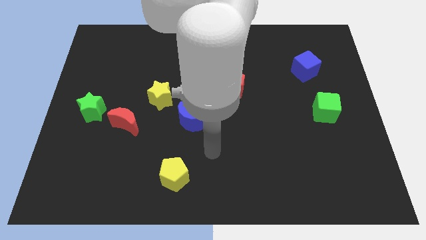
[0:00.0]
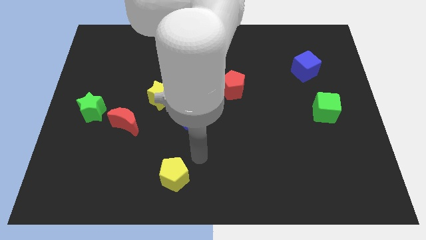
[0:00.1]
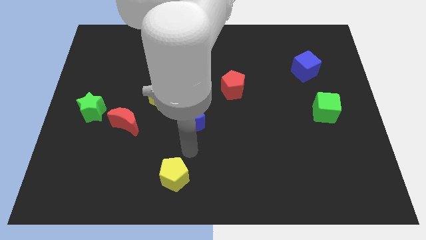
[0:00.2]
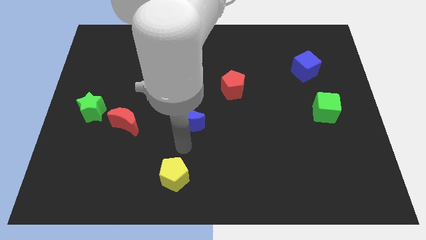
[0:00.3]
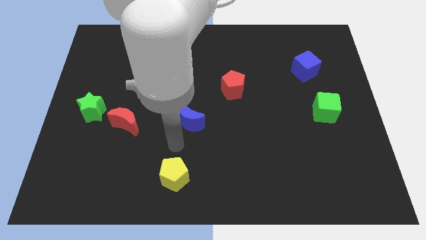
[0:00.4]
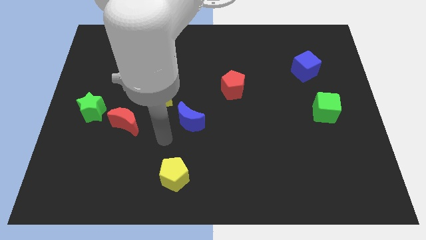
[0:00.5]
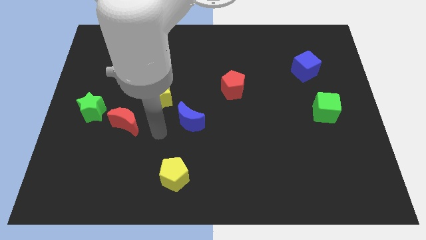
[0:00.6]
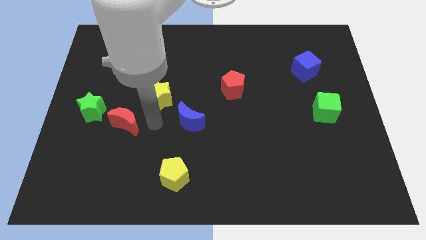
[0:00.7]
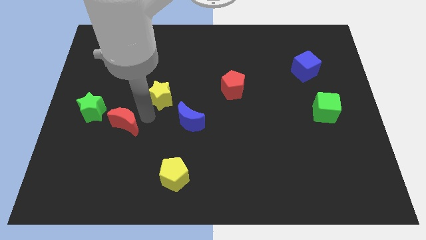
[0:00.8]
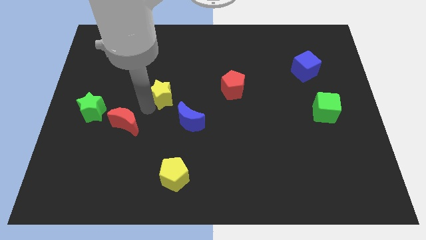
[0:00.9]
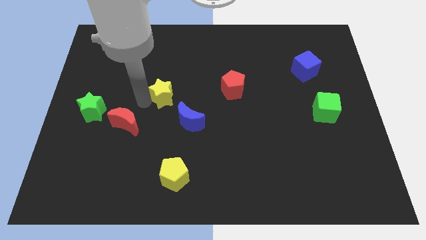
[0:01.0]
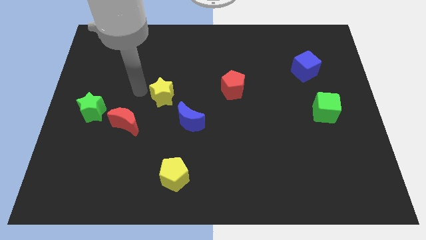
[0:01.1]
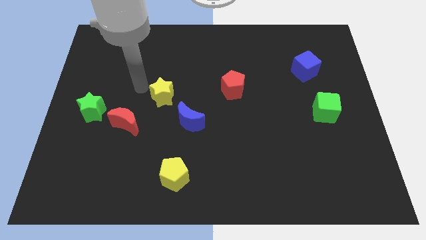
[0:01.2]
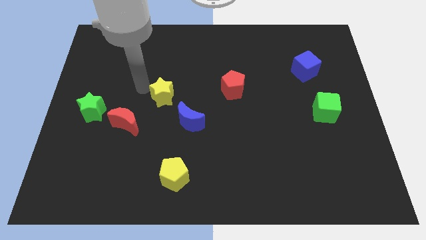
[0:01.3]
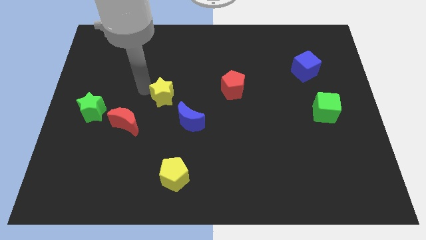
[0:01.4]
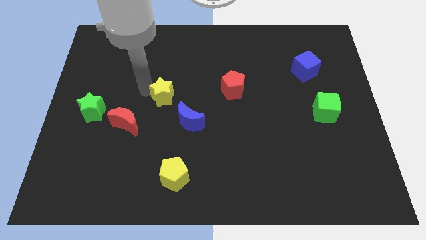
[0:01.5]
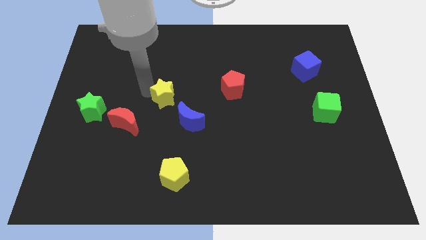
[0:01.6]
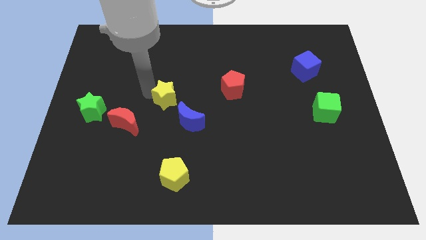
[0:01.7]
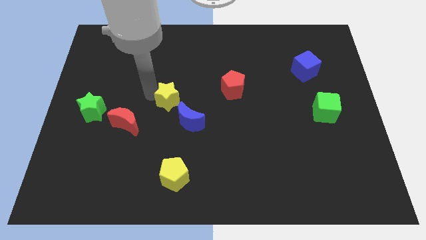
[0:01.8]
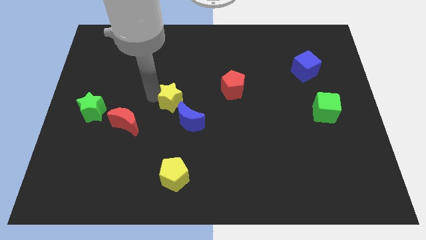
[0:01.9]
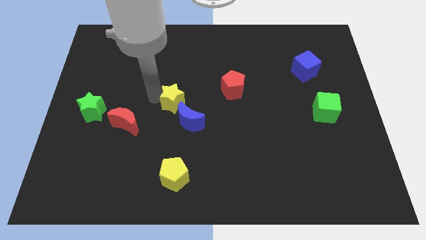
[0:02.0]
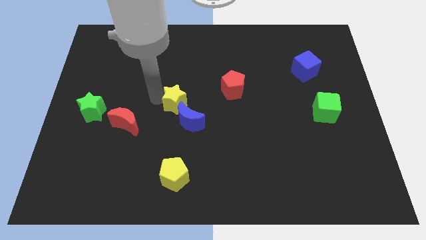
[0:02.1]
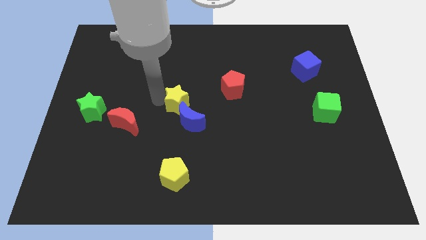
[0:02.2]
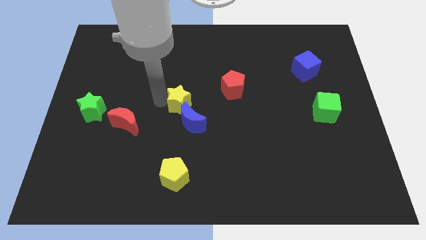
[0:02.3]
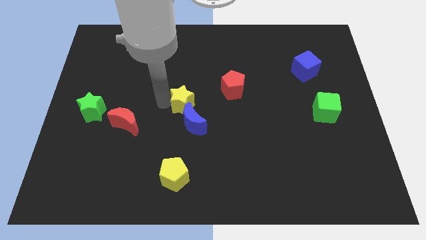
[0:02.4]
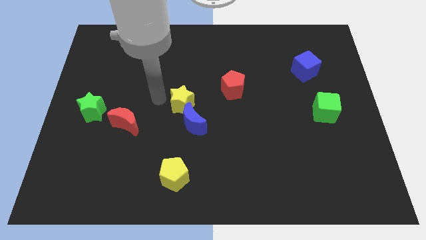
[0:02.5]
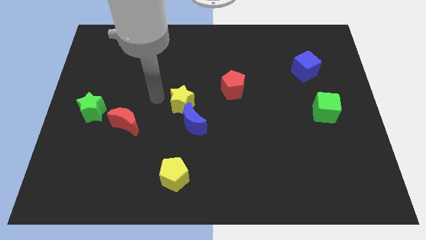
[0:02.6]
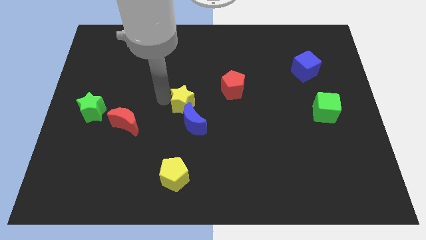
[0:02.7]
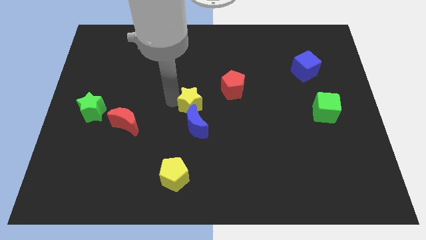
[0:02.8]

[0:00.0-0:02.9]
push the yellow star somewhat to the right

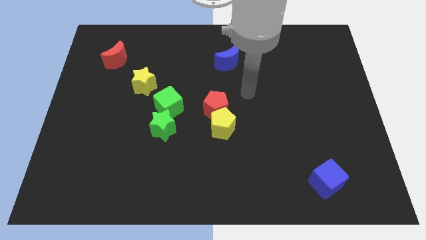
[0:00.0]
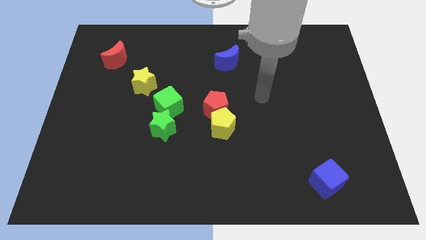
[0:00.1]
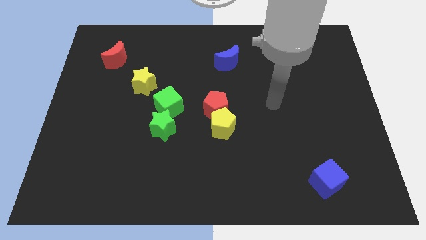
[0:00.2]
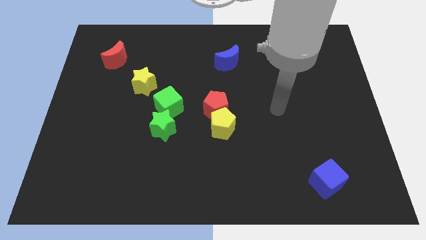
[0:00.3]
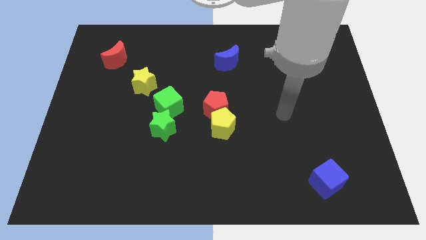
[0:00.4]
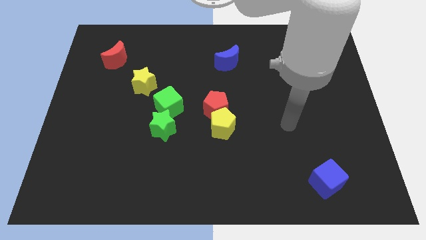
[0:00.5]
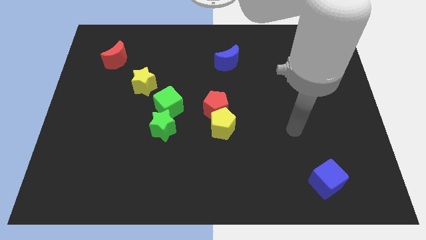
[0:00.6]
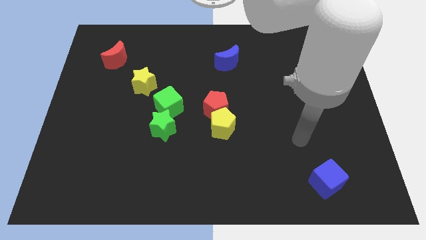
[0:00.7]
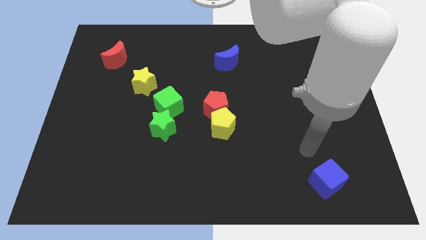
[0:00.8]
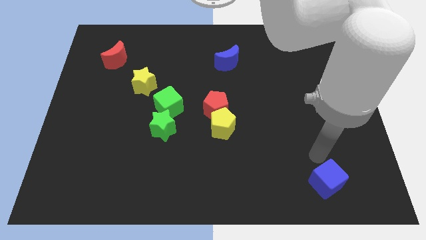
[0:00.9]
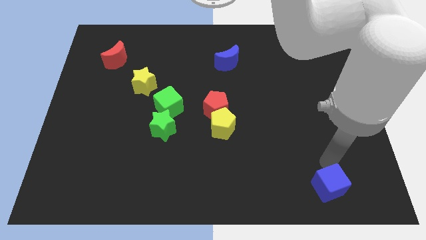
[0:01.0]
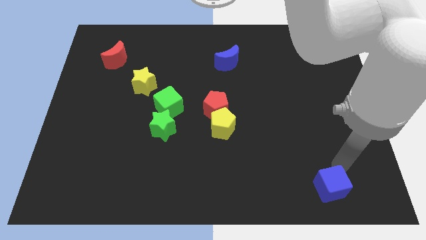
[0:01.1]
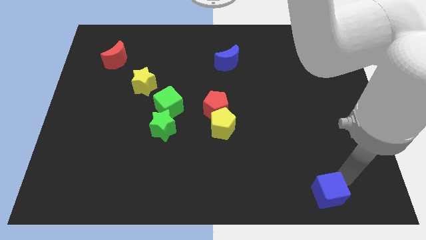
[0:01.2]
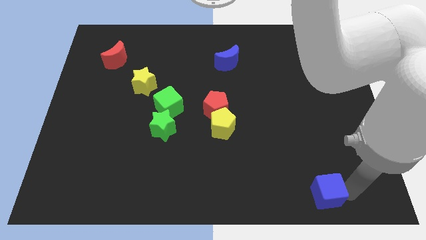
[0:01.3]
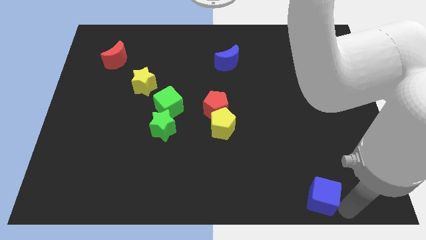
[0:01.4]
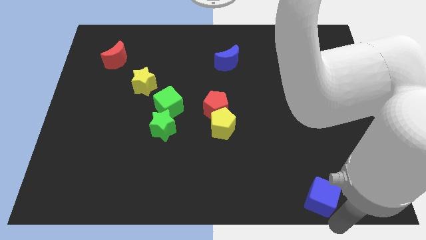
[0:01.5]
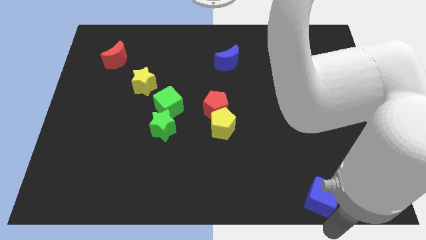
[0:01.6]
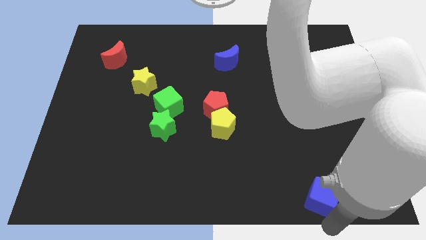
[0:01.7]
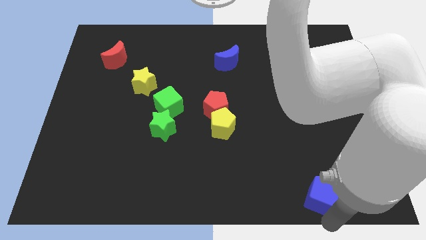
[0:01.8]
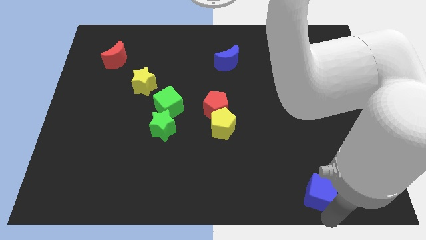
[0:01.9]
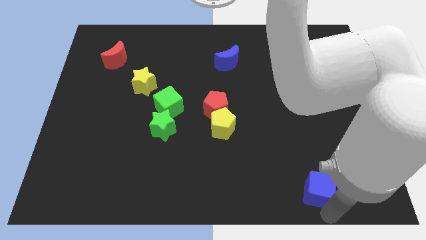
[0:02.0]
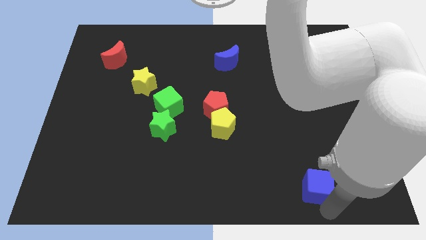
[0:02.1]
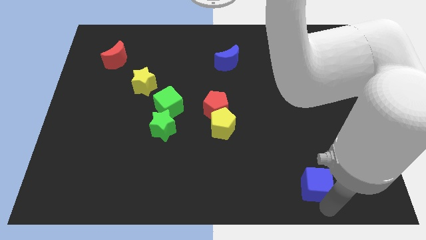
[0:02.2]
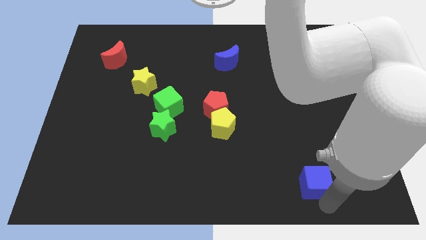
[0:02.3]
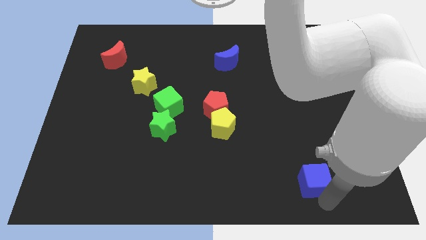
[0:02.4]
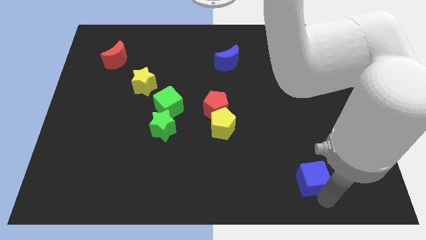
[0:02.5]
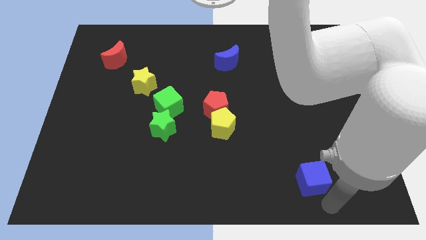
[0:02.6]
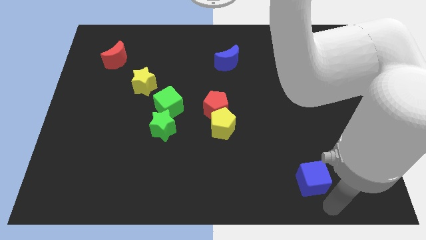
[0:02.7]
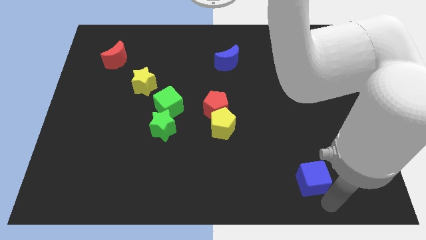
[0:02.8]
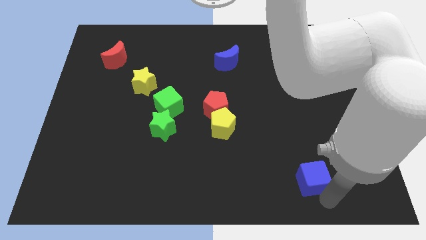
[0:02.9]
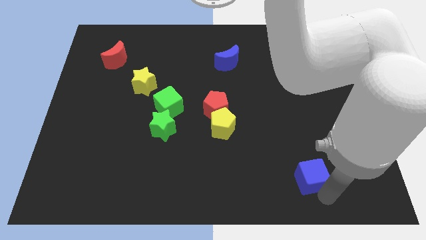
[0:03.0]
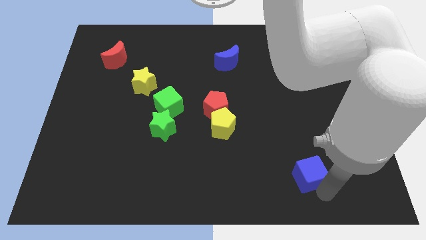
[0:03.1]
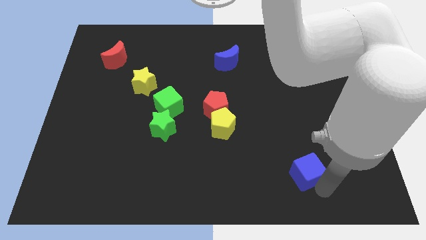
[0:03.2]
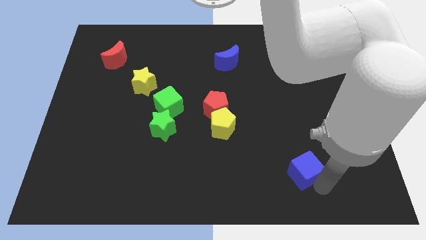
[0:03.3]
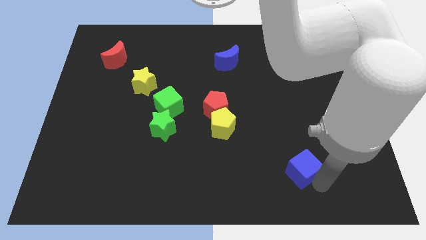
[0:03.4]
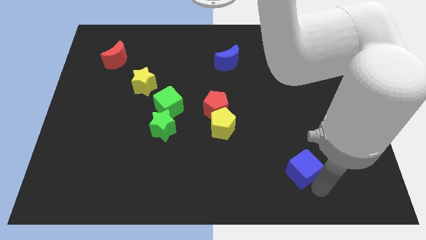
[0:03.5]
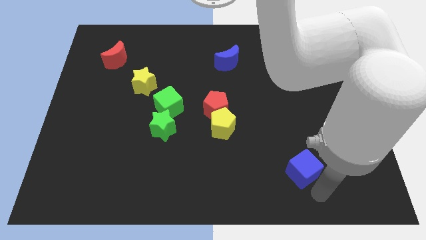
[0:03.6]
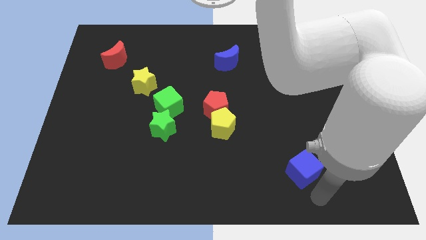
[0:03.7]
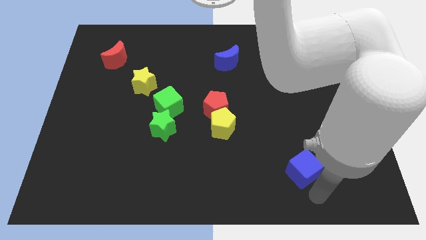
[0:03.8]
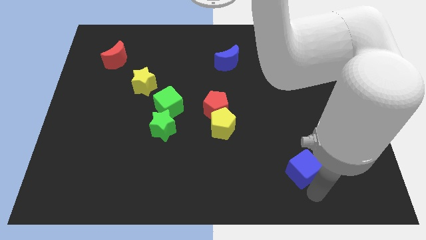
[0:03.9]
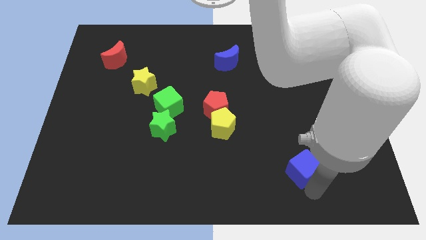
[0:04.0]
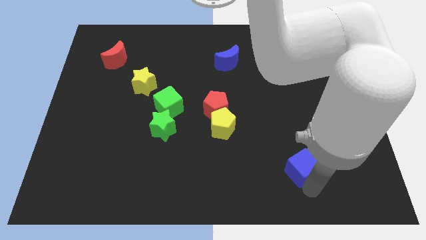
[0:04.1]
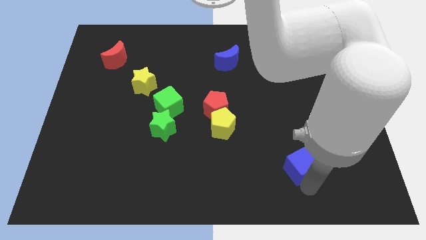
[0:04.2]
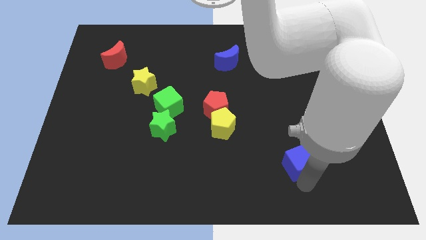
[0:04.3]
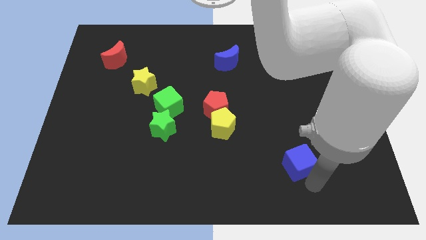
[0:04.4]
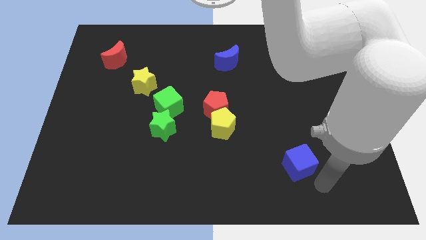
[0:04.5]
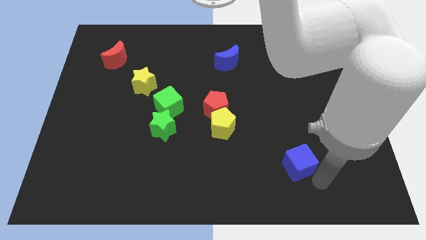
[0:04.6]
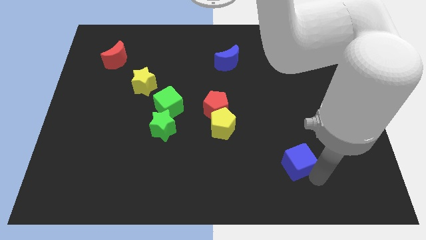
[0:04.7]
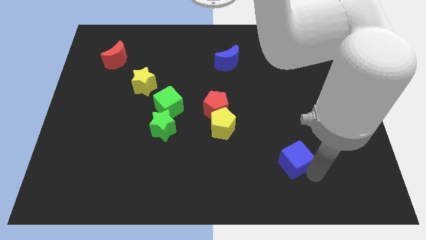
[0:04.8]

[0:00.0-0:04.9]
push the blue cube a little bit up and to the left diagonally
